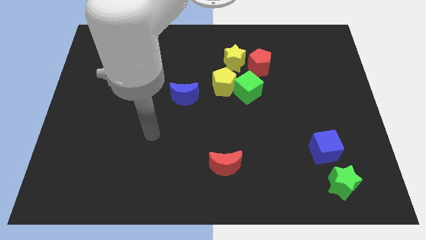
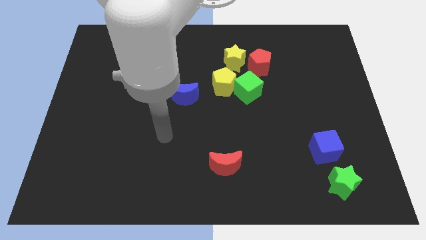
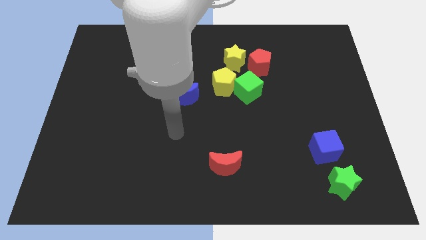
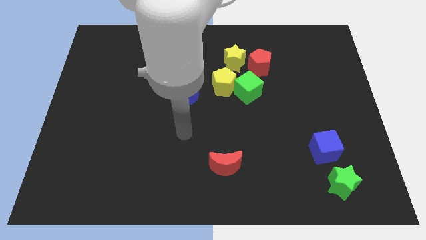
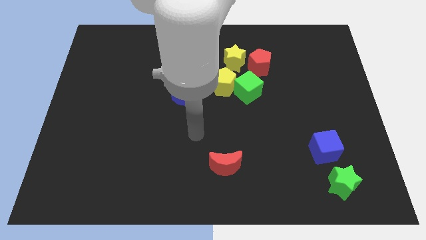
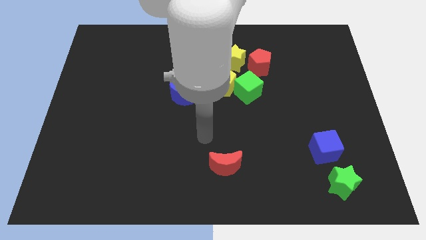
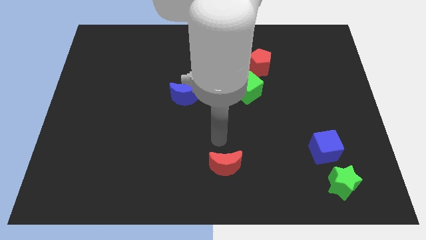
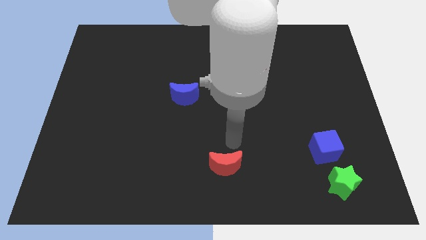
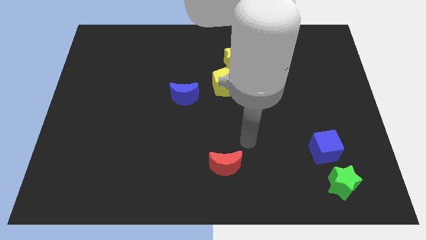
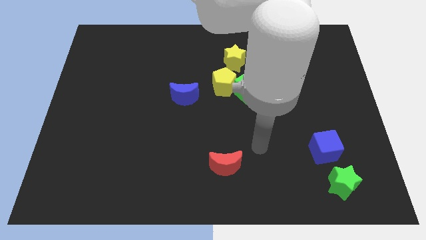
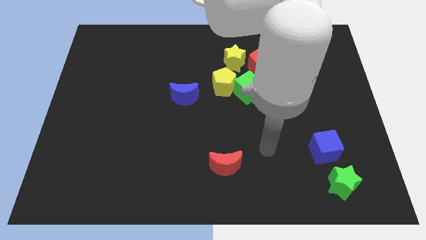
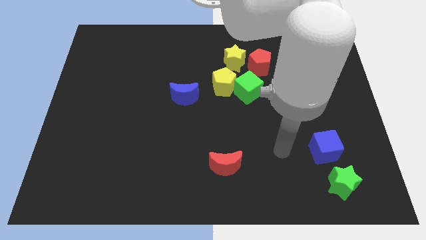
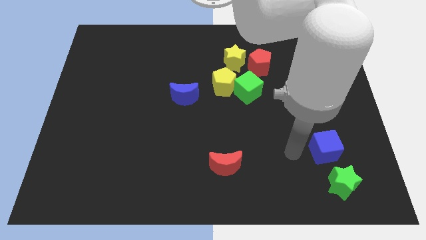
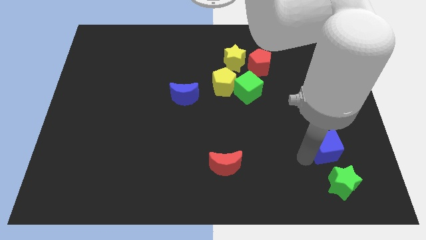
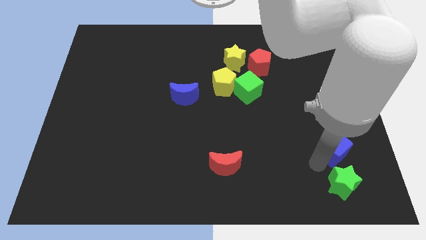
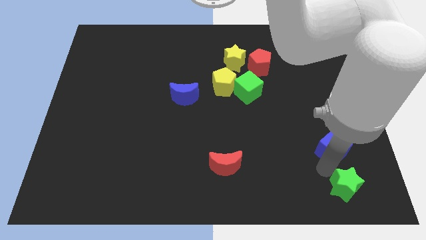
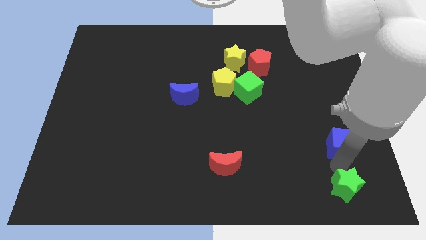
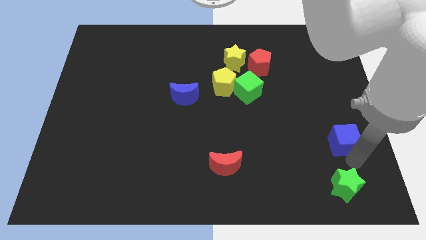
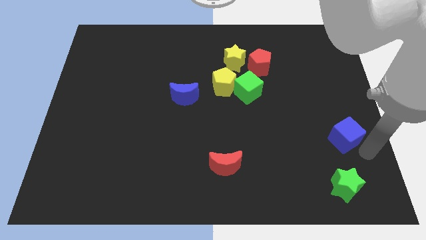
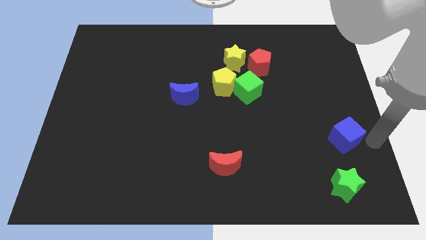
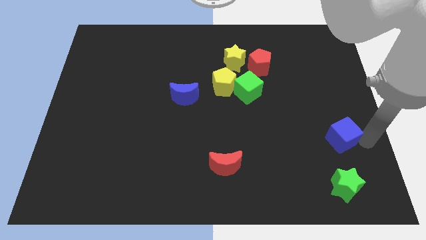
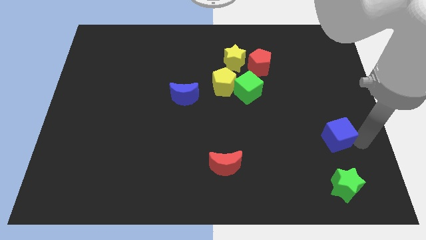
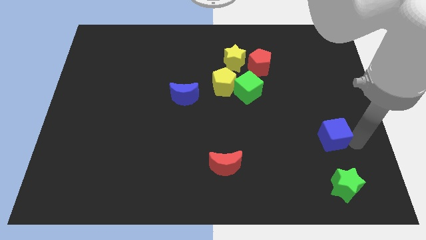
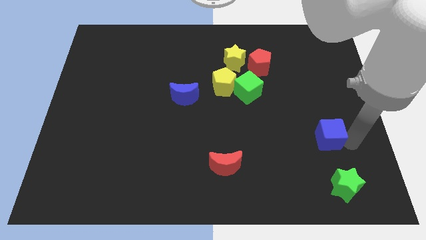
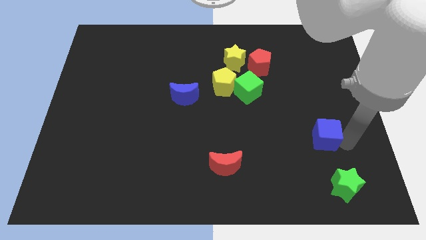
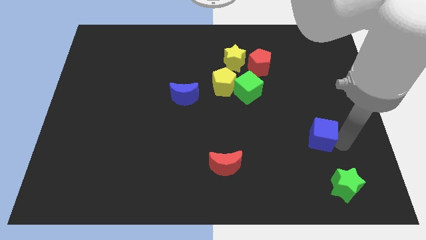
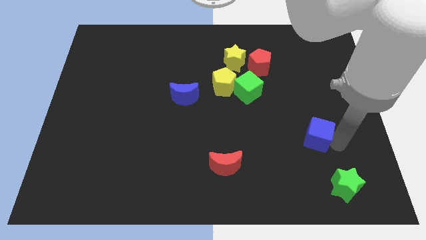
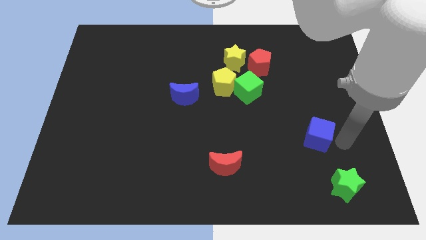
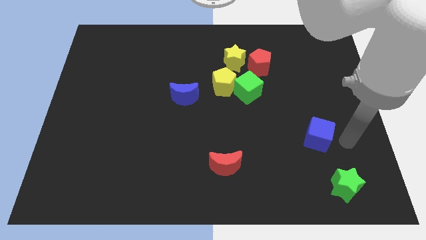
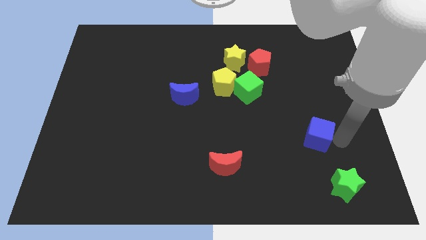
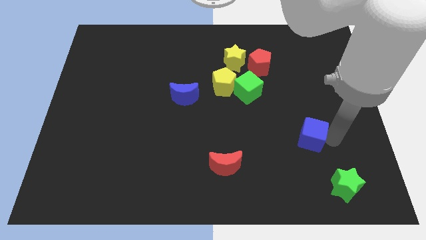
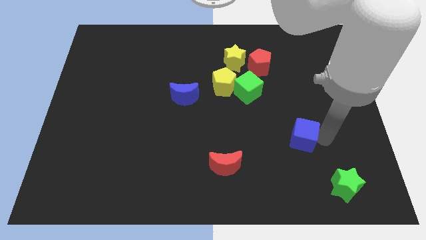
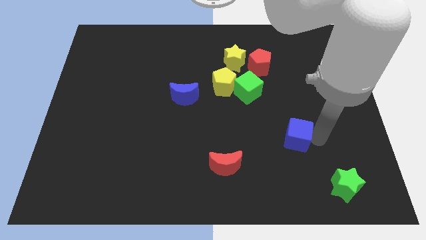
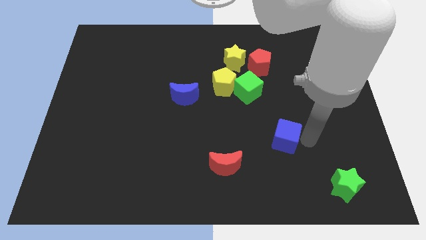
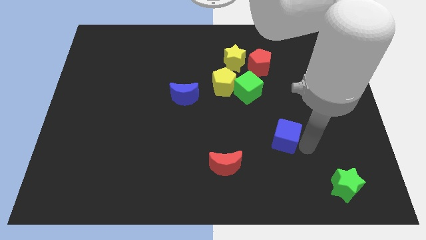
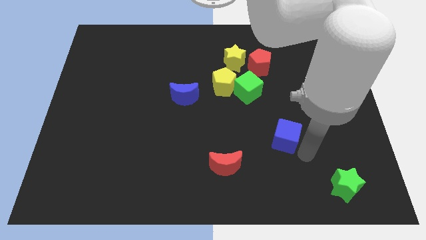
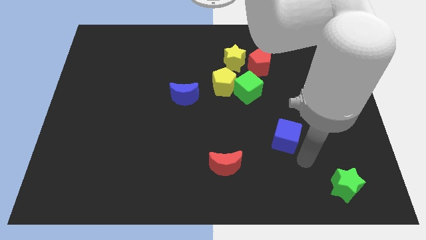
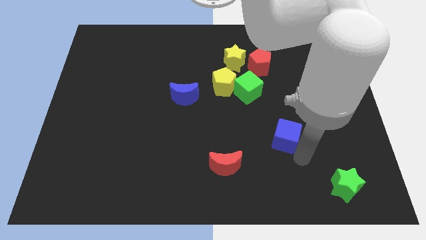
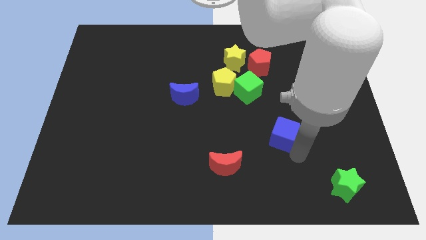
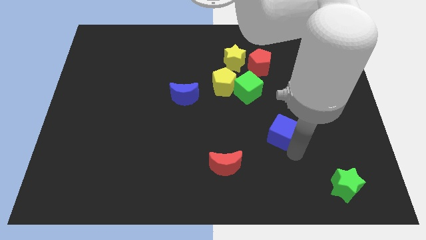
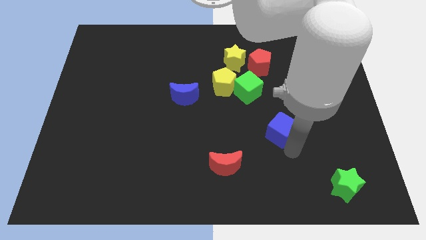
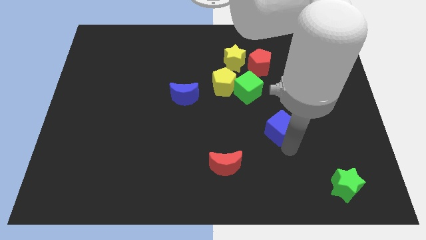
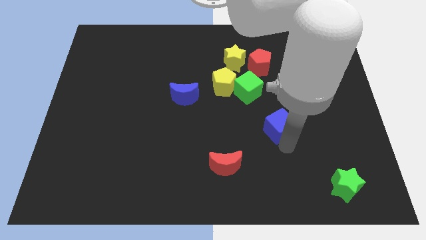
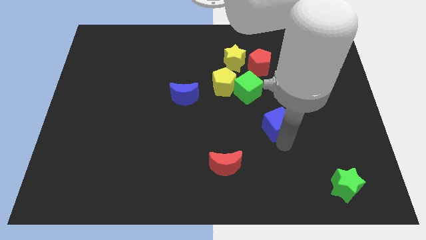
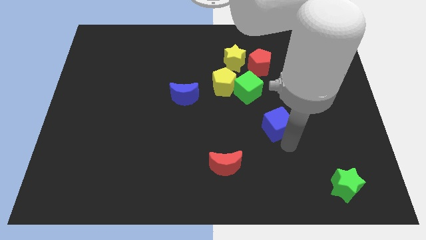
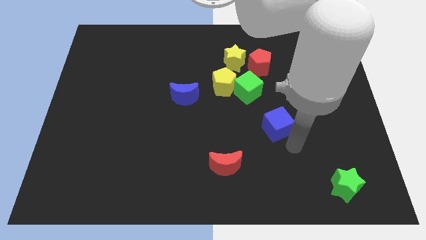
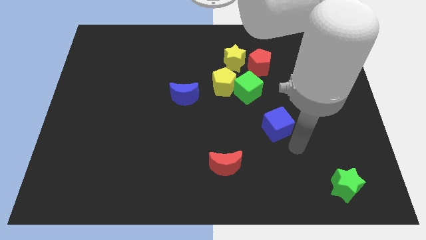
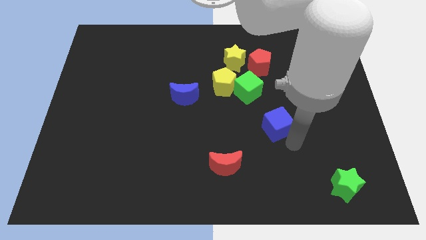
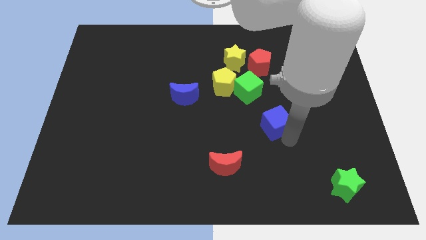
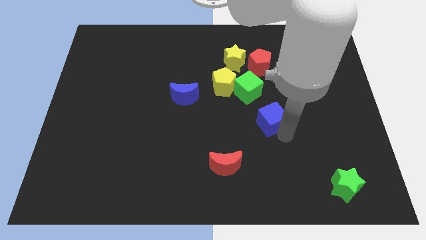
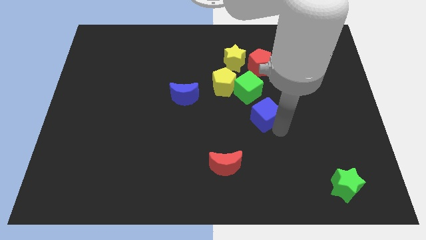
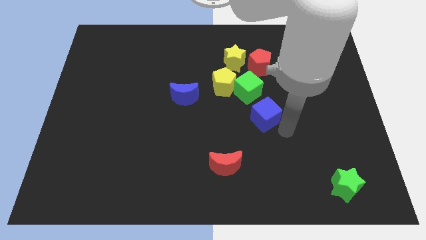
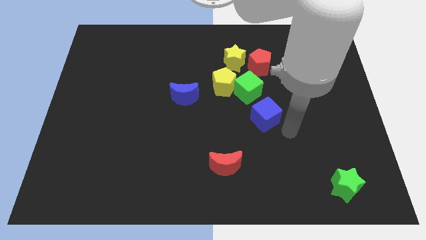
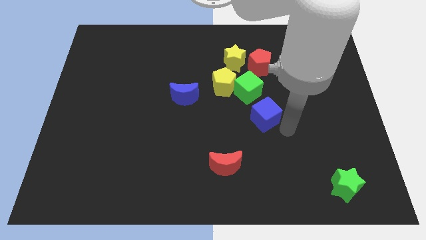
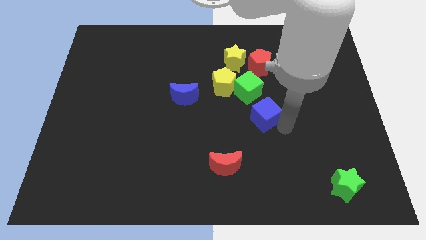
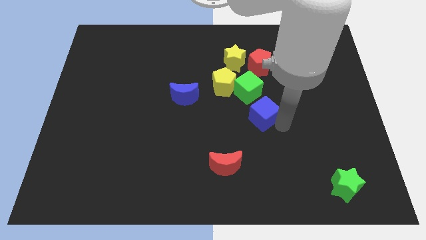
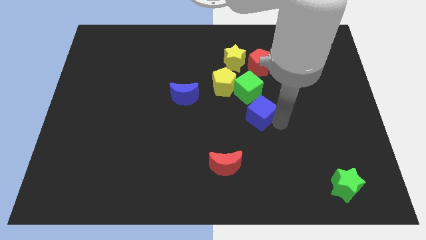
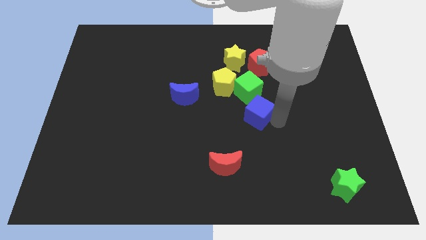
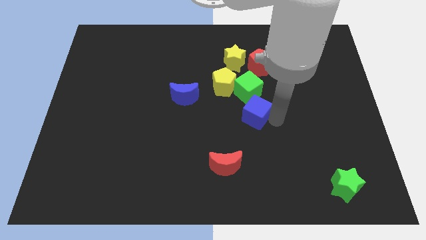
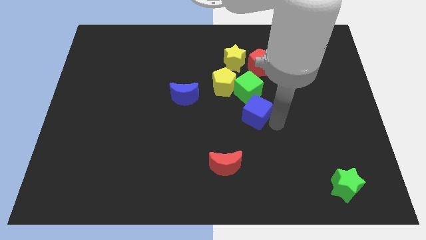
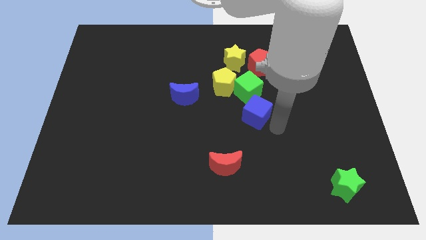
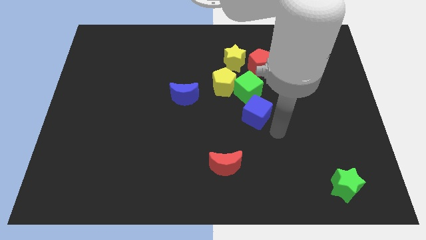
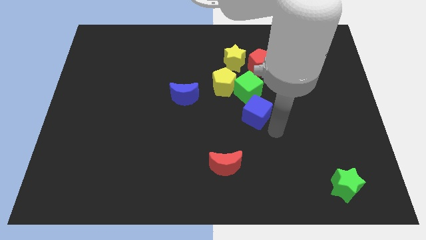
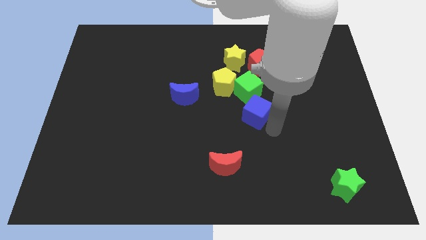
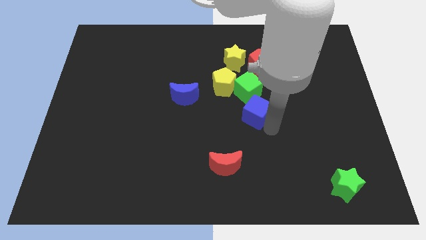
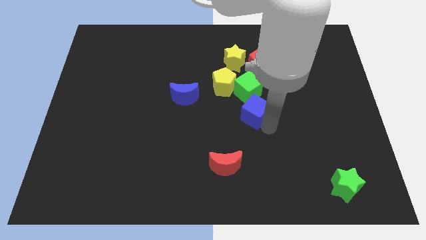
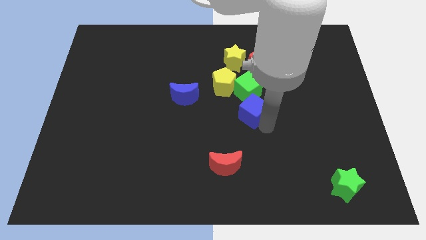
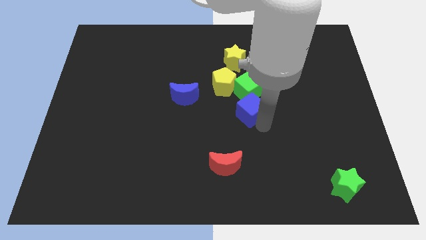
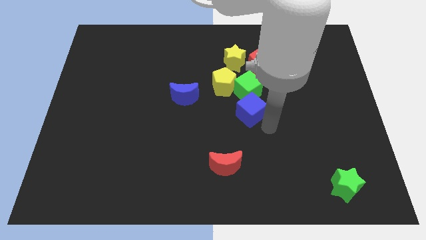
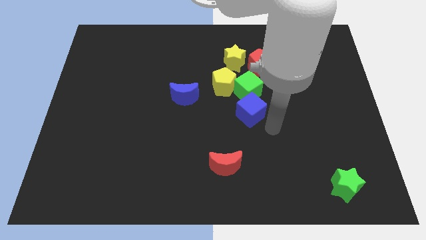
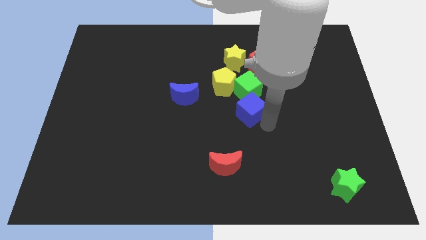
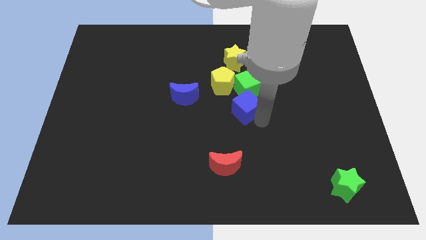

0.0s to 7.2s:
slide the blue cube to the right side of the blue moon

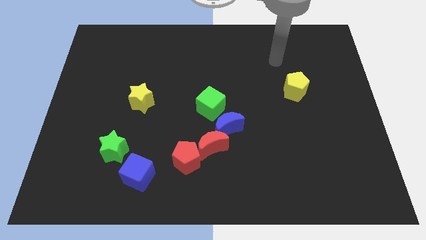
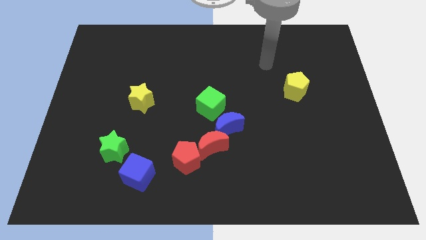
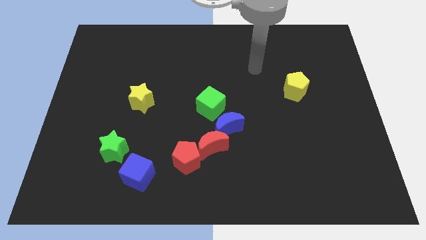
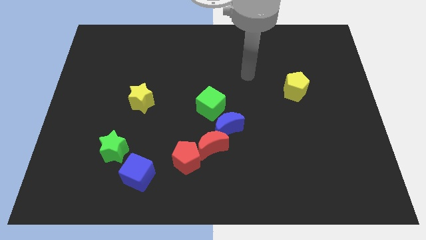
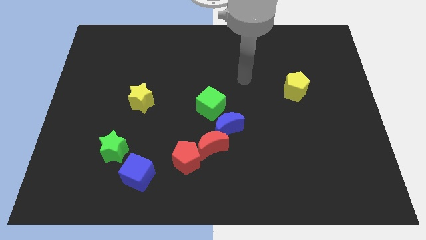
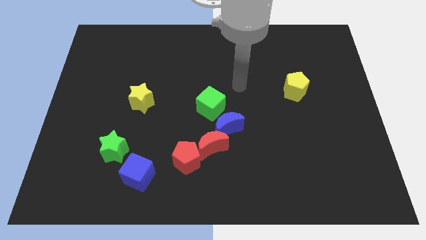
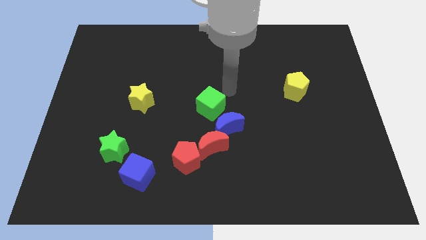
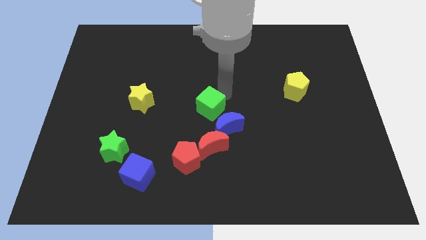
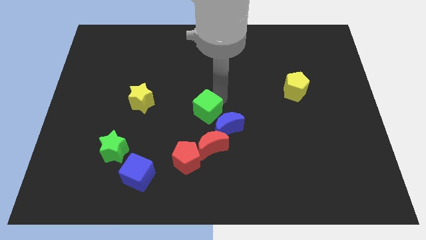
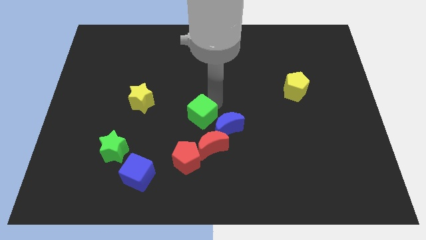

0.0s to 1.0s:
put the green cube to the top left of the red moon

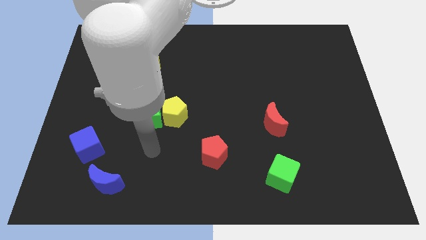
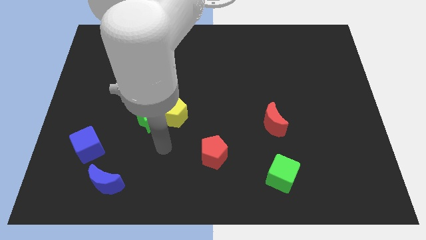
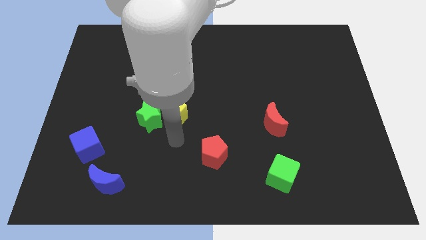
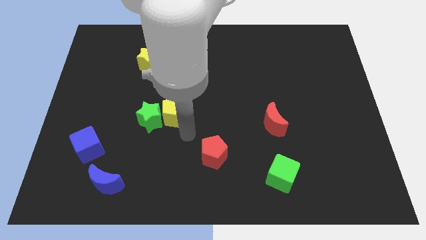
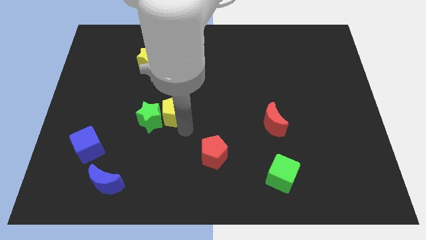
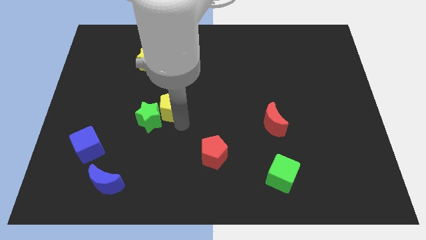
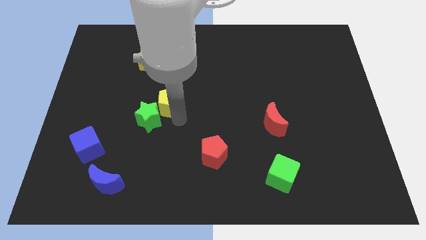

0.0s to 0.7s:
move the yellow pentagon to the top side of the green star
